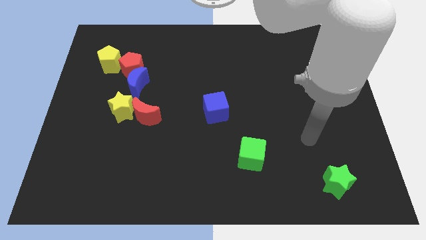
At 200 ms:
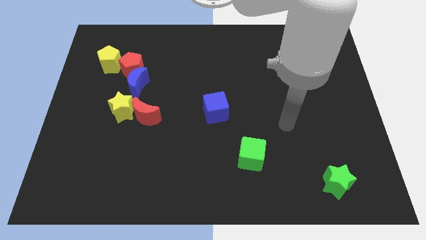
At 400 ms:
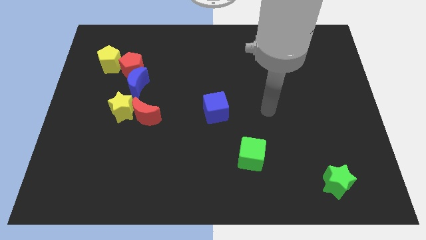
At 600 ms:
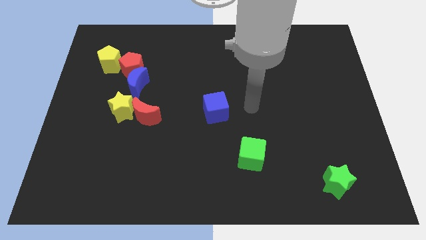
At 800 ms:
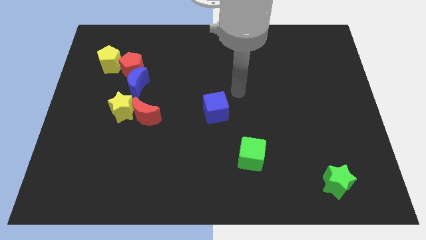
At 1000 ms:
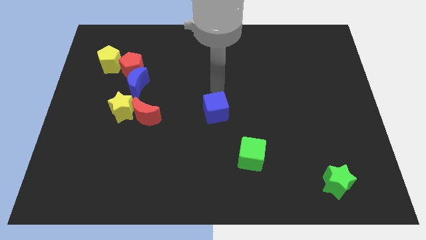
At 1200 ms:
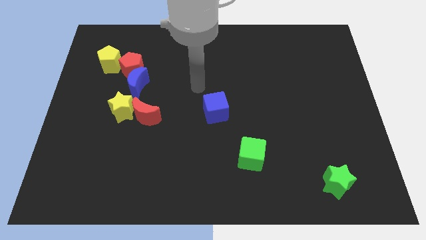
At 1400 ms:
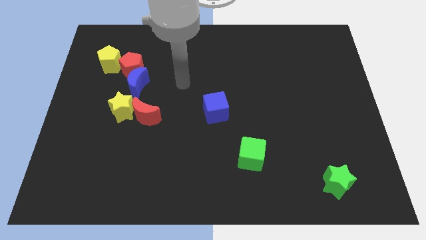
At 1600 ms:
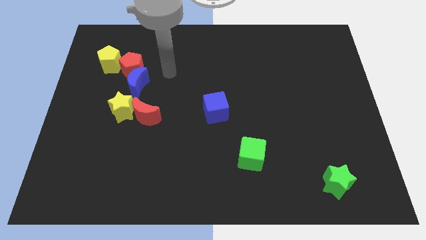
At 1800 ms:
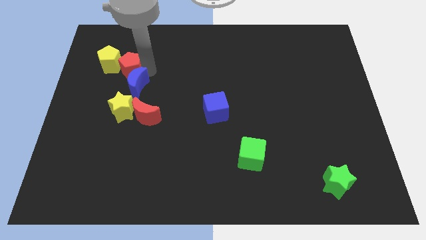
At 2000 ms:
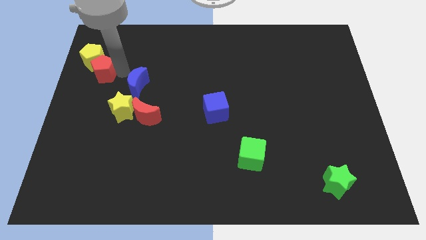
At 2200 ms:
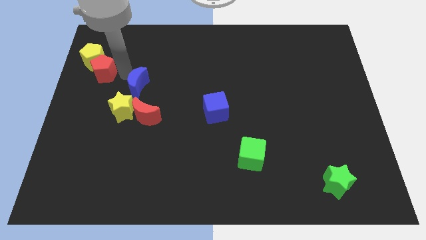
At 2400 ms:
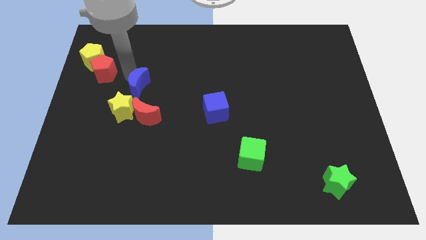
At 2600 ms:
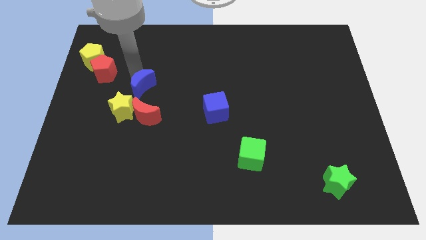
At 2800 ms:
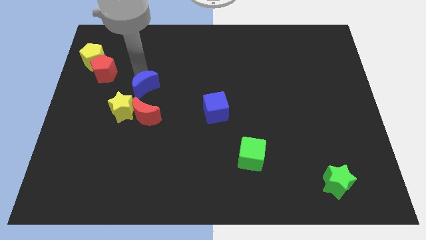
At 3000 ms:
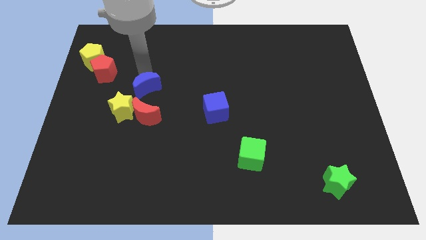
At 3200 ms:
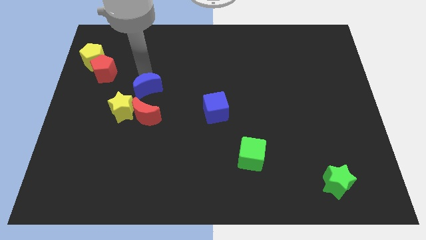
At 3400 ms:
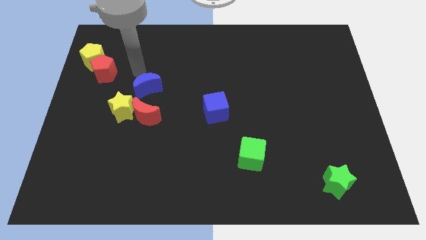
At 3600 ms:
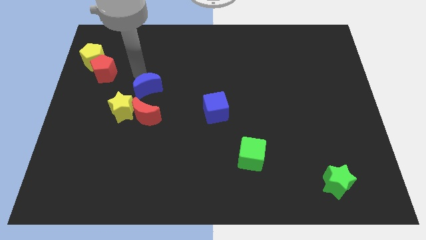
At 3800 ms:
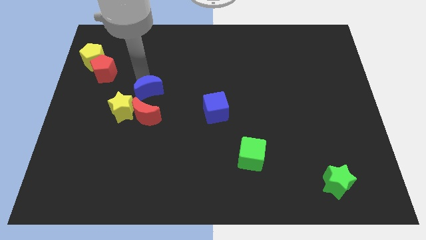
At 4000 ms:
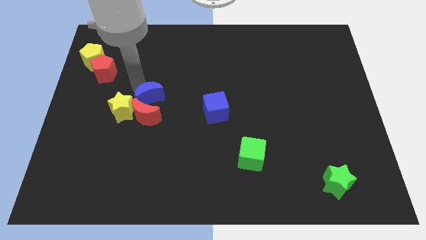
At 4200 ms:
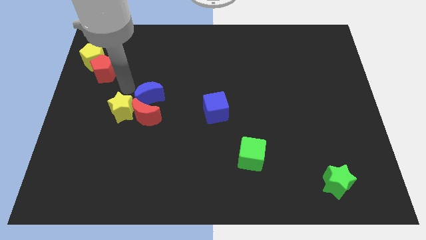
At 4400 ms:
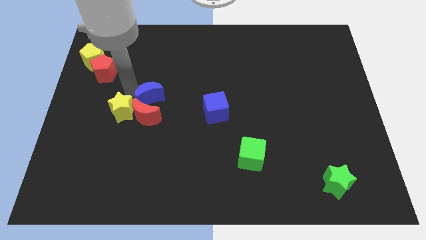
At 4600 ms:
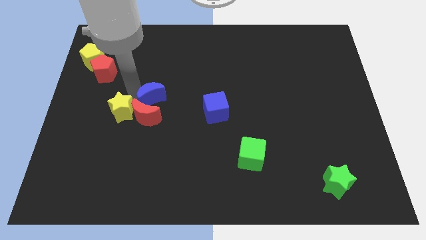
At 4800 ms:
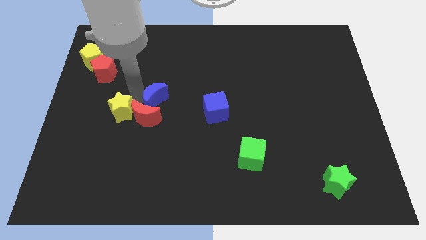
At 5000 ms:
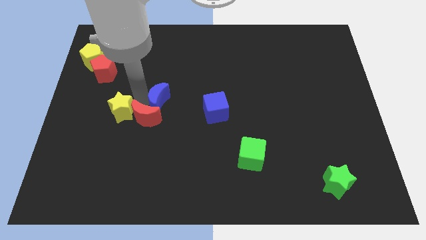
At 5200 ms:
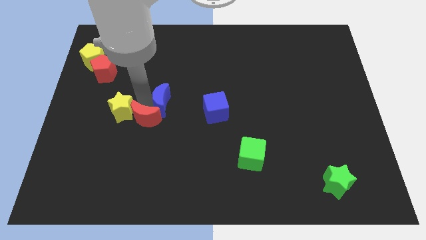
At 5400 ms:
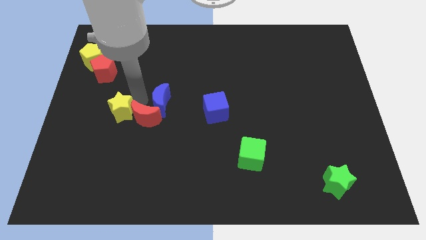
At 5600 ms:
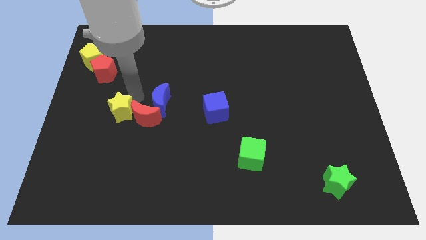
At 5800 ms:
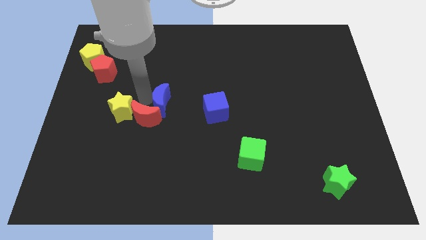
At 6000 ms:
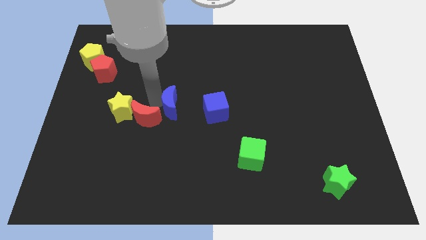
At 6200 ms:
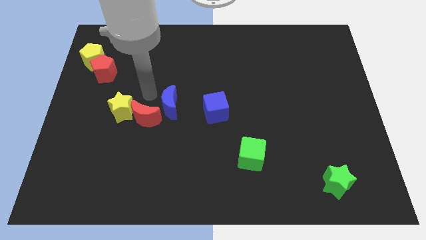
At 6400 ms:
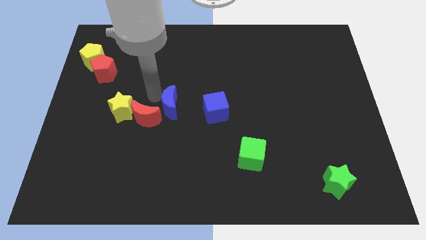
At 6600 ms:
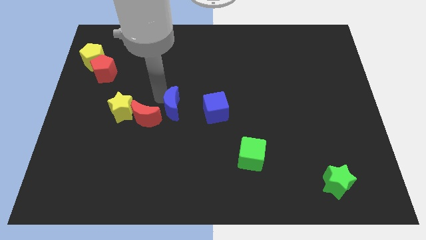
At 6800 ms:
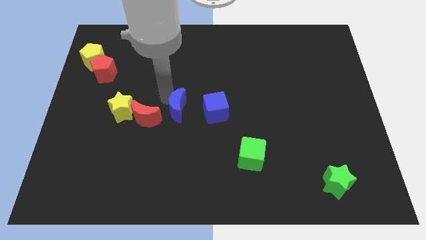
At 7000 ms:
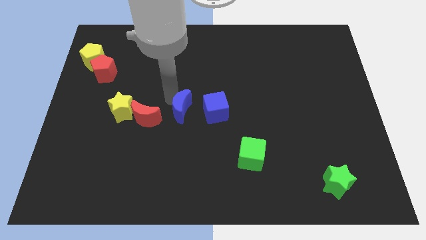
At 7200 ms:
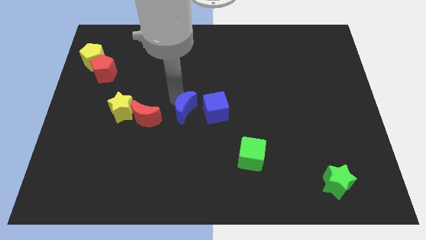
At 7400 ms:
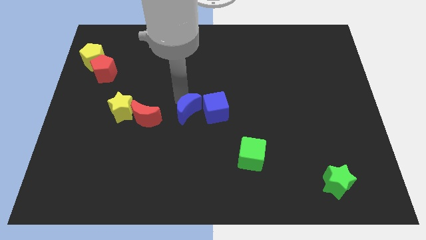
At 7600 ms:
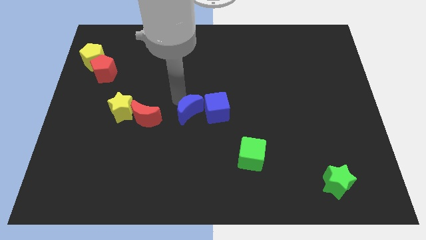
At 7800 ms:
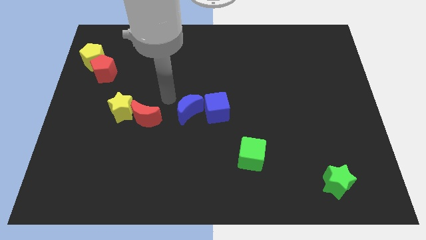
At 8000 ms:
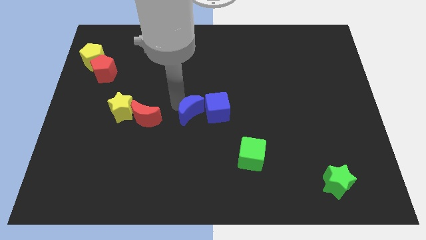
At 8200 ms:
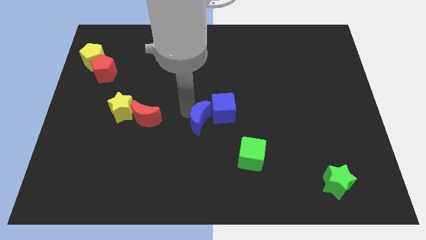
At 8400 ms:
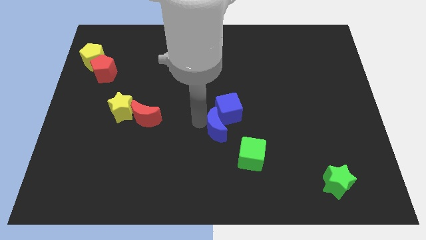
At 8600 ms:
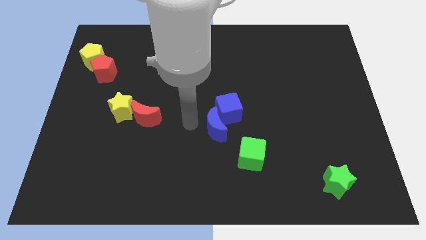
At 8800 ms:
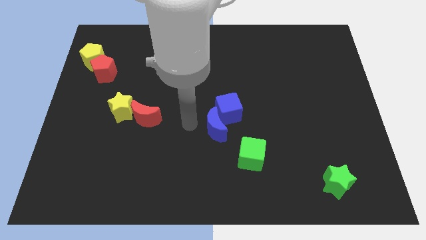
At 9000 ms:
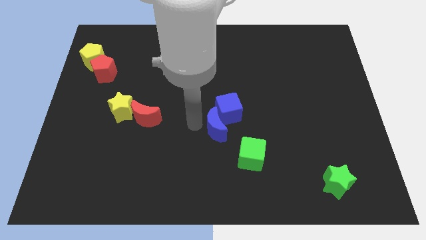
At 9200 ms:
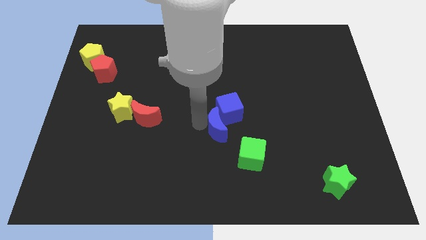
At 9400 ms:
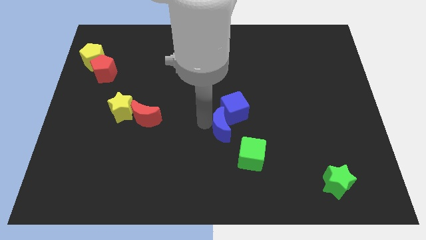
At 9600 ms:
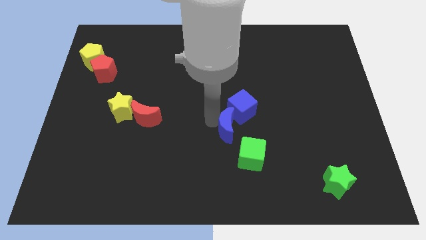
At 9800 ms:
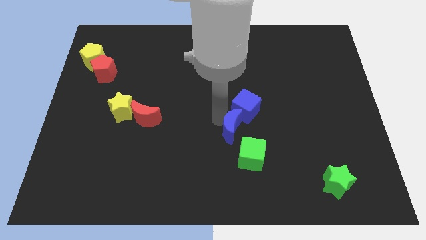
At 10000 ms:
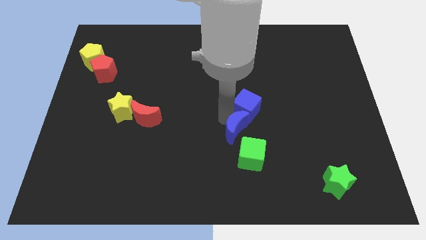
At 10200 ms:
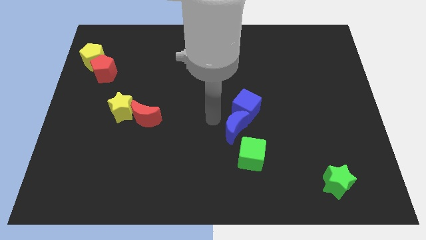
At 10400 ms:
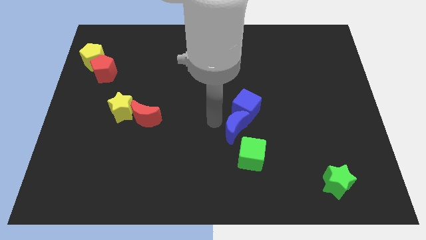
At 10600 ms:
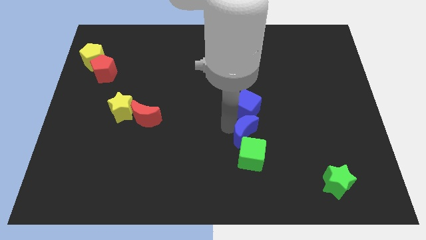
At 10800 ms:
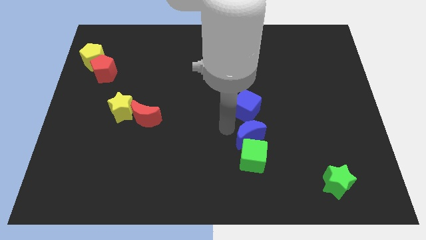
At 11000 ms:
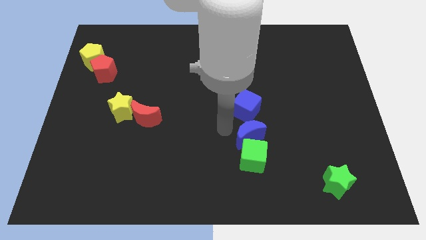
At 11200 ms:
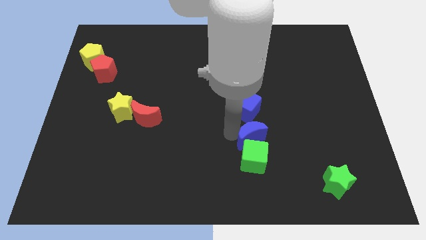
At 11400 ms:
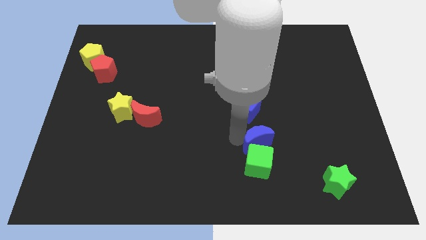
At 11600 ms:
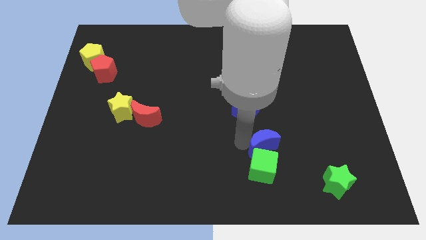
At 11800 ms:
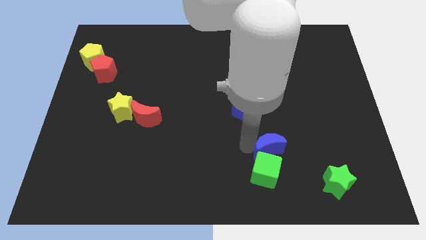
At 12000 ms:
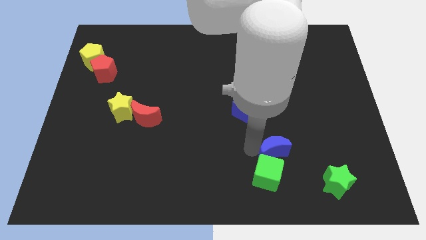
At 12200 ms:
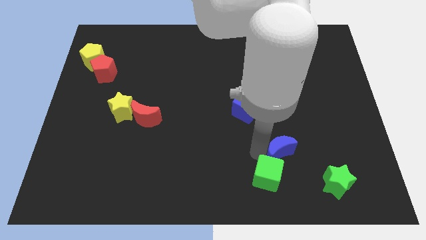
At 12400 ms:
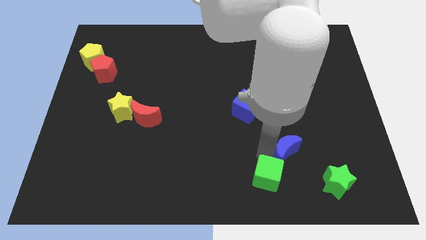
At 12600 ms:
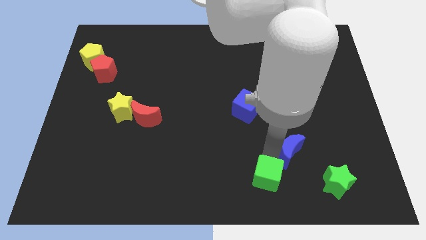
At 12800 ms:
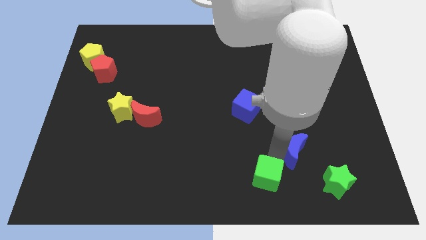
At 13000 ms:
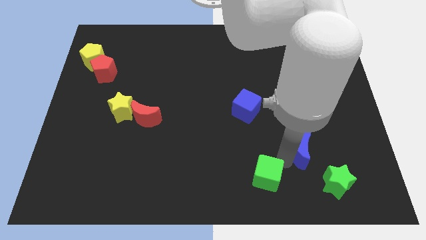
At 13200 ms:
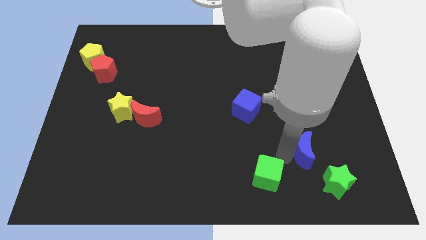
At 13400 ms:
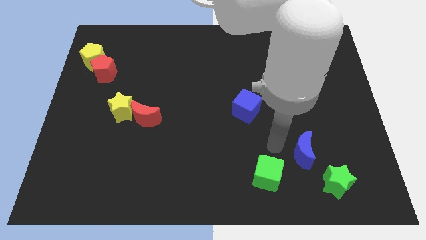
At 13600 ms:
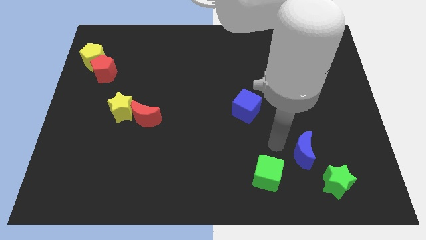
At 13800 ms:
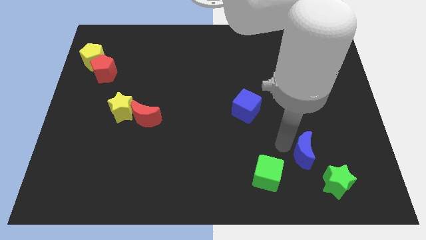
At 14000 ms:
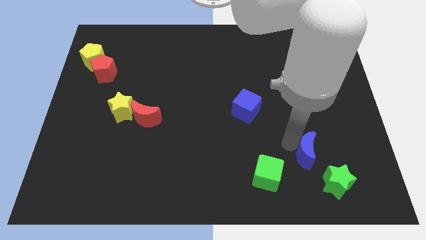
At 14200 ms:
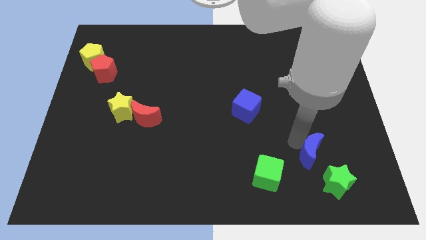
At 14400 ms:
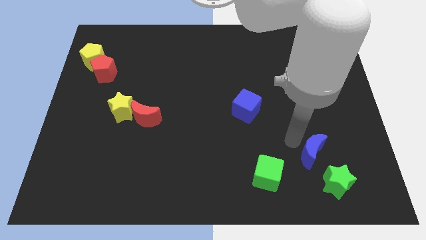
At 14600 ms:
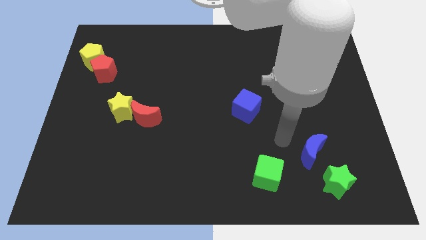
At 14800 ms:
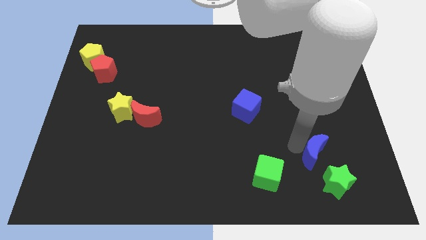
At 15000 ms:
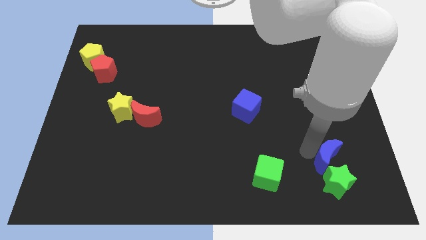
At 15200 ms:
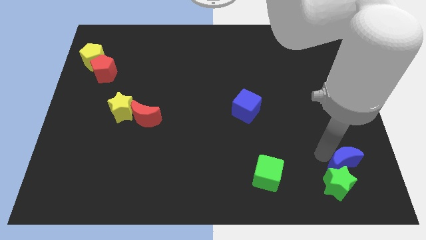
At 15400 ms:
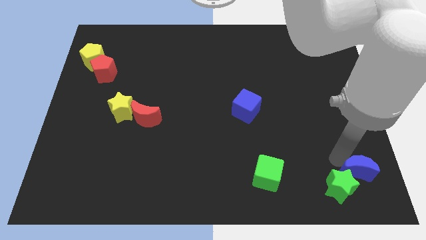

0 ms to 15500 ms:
put the blue moon to the lower right corner
